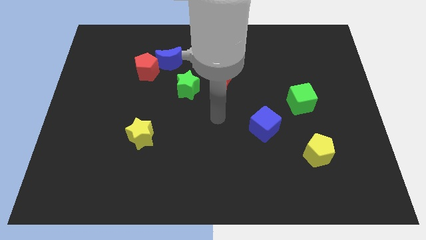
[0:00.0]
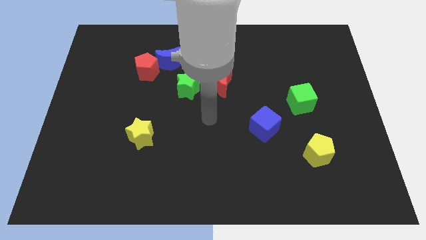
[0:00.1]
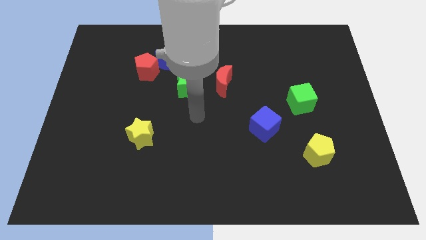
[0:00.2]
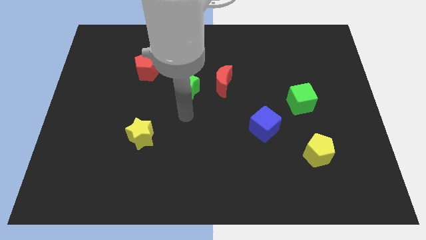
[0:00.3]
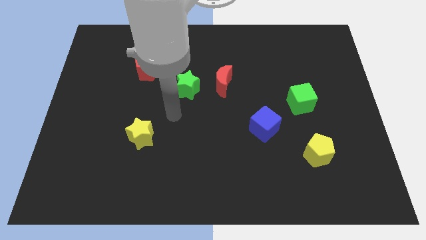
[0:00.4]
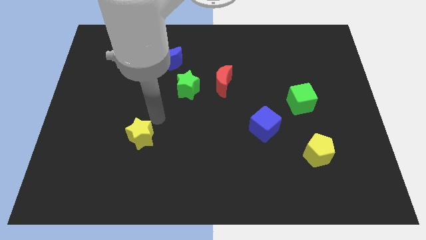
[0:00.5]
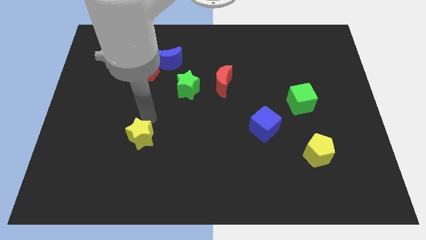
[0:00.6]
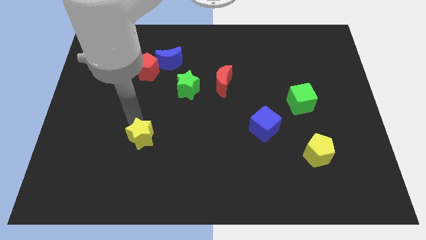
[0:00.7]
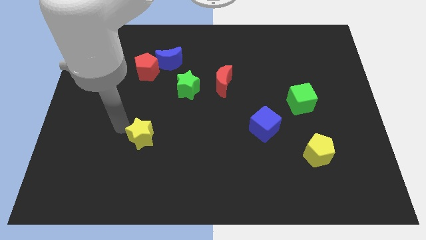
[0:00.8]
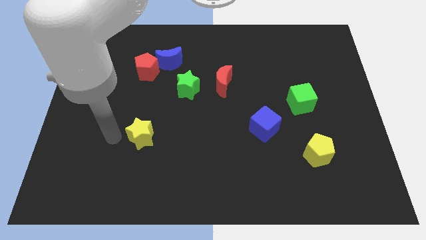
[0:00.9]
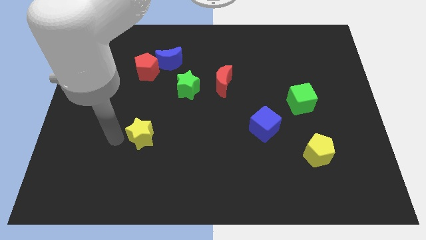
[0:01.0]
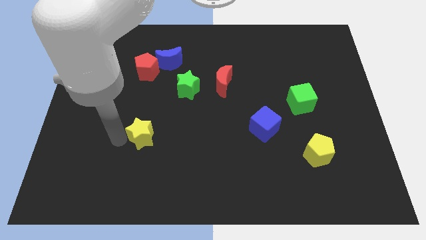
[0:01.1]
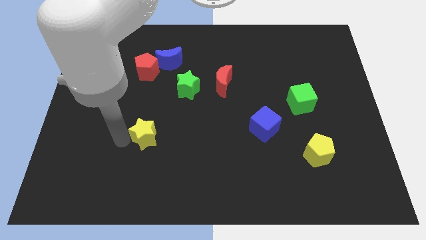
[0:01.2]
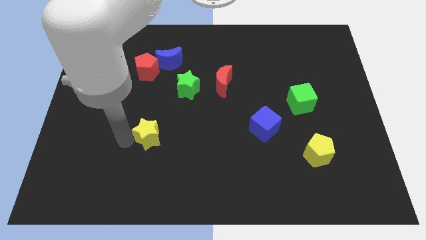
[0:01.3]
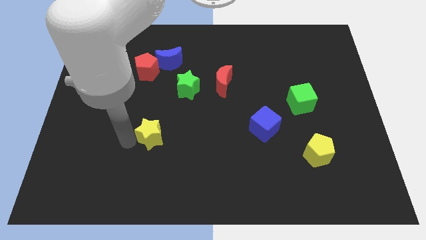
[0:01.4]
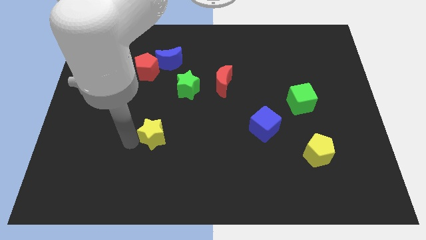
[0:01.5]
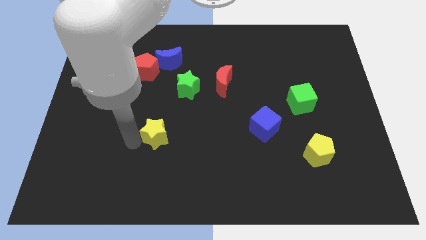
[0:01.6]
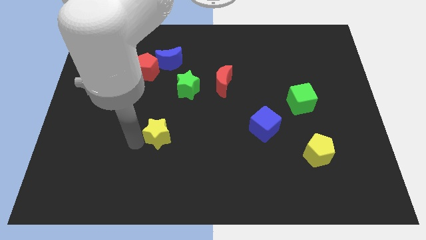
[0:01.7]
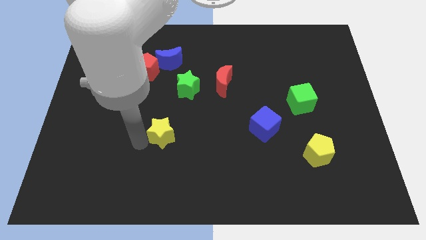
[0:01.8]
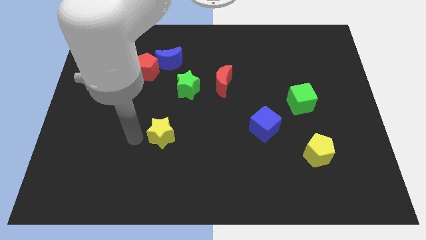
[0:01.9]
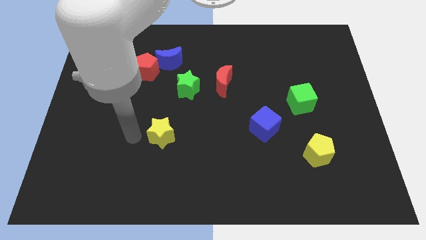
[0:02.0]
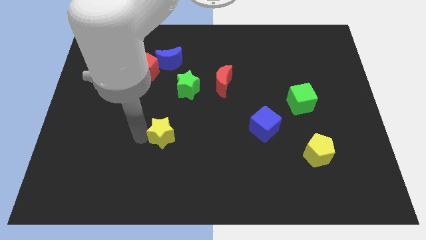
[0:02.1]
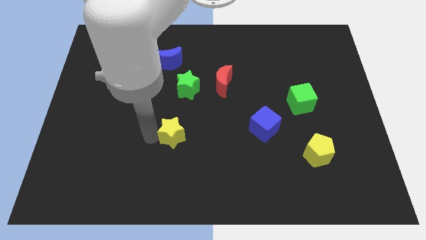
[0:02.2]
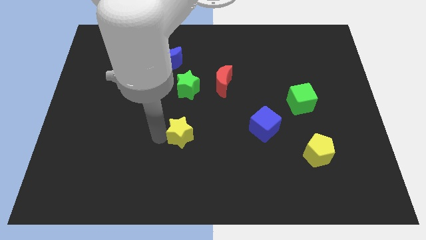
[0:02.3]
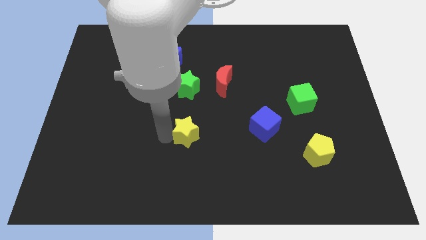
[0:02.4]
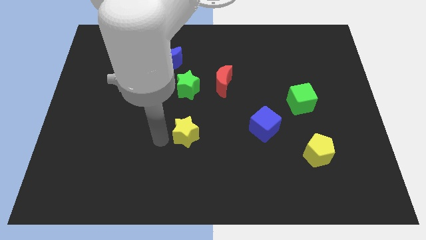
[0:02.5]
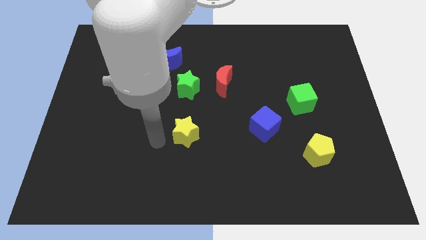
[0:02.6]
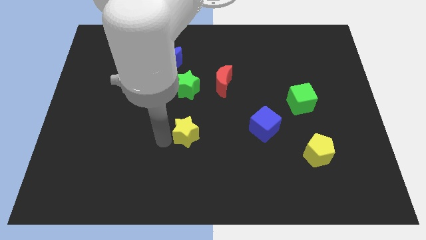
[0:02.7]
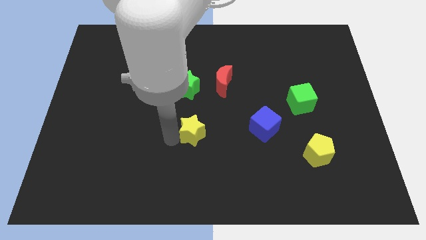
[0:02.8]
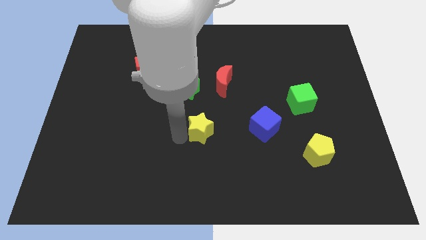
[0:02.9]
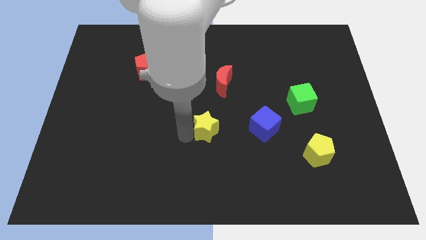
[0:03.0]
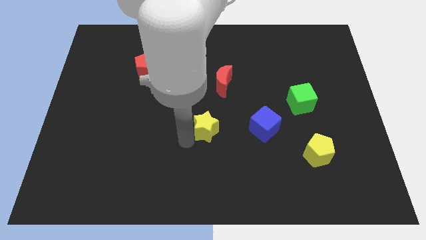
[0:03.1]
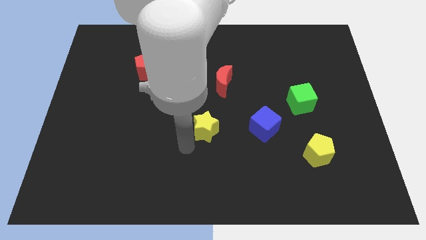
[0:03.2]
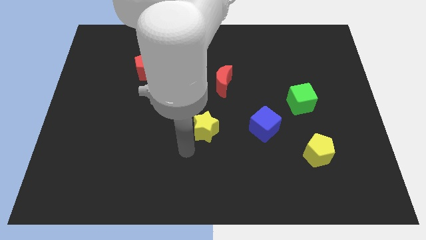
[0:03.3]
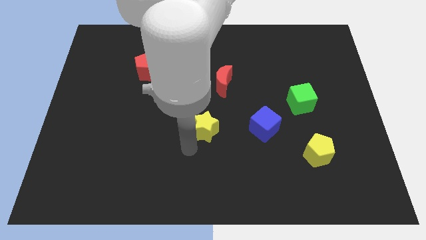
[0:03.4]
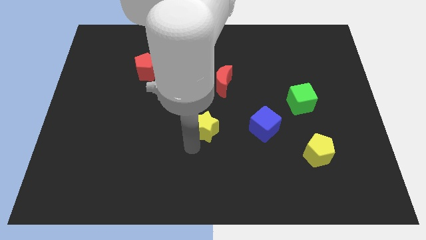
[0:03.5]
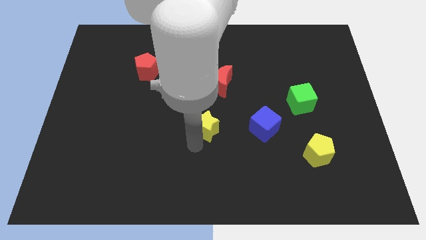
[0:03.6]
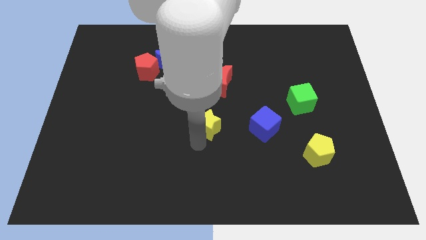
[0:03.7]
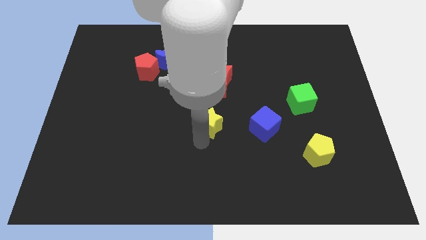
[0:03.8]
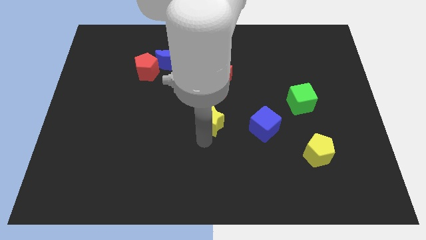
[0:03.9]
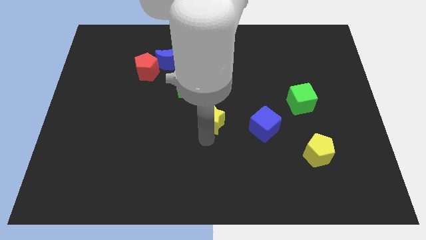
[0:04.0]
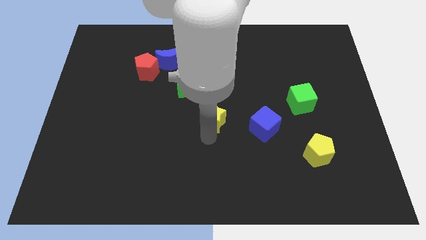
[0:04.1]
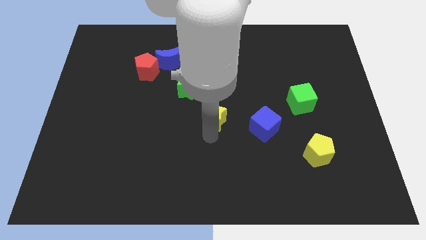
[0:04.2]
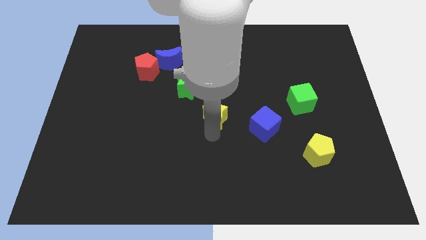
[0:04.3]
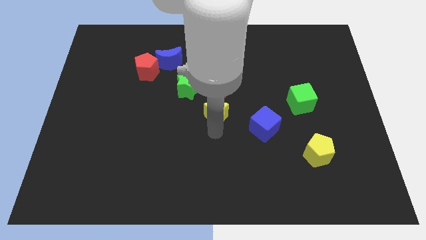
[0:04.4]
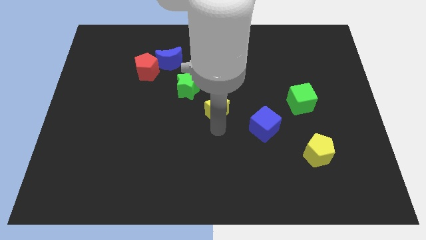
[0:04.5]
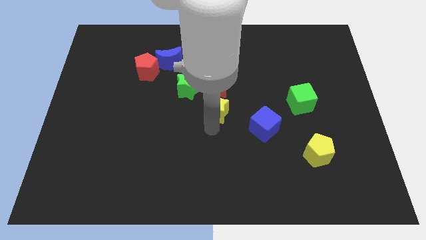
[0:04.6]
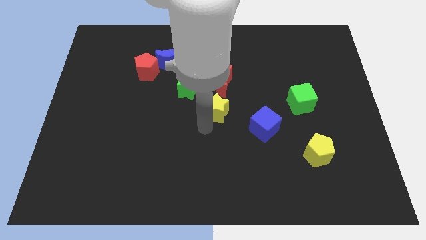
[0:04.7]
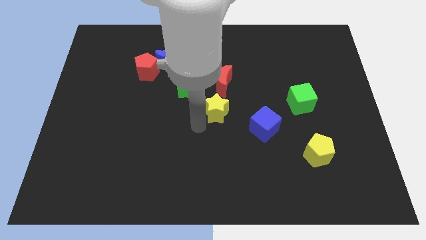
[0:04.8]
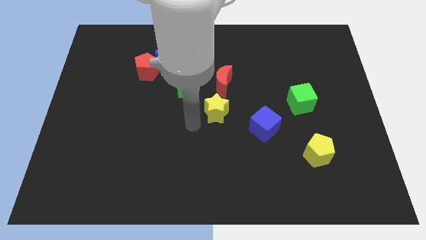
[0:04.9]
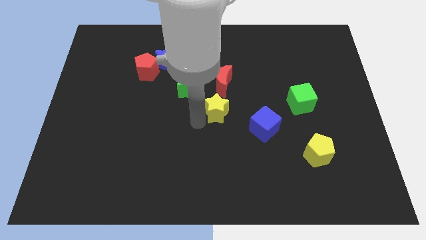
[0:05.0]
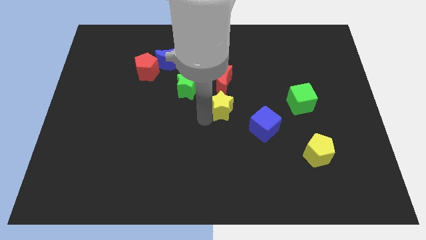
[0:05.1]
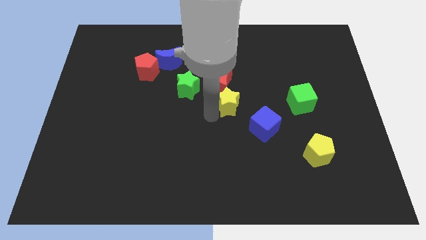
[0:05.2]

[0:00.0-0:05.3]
push the yellow star to the bottom right of the red moon

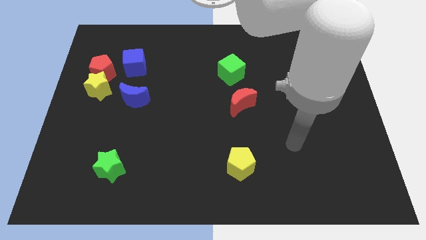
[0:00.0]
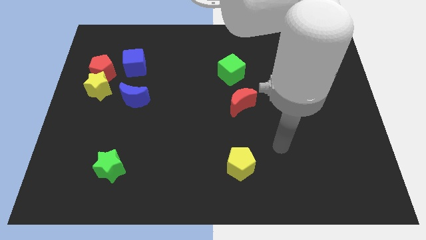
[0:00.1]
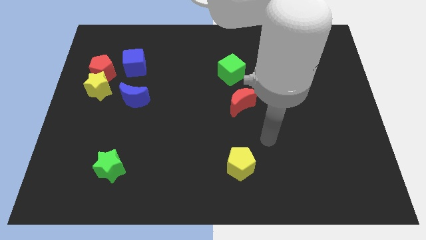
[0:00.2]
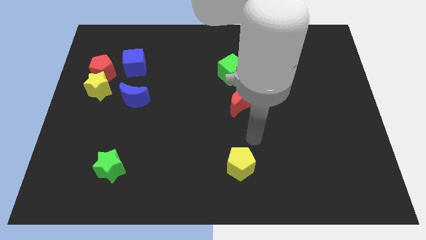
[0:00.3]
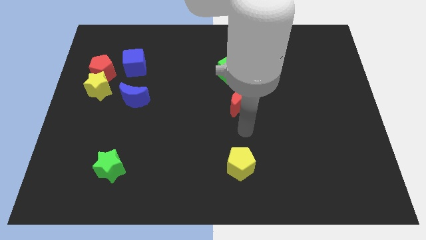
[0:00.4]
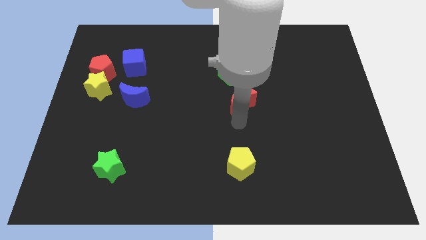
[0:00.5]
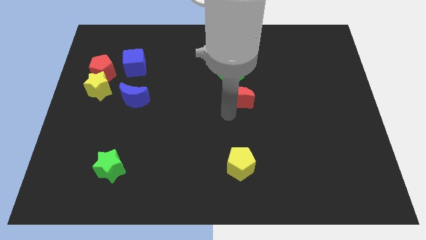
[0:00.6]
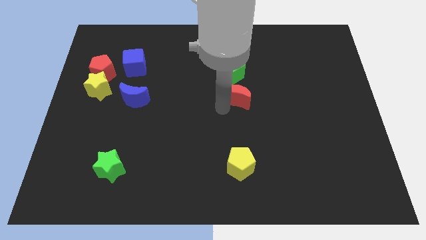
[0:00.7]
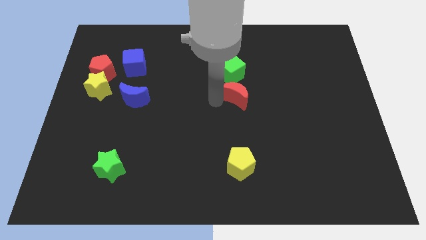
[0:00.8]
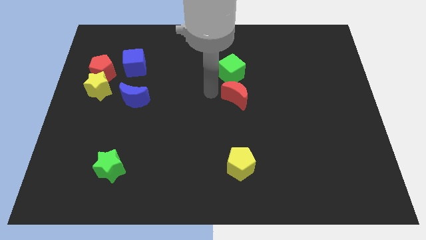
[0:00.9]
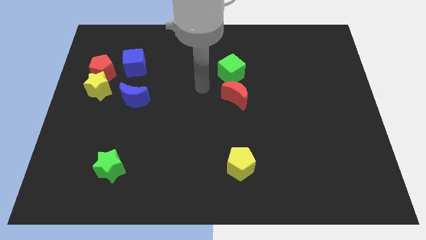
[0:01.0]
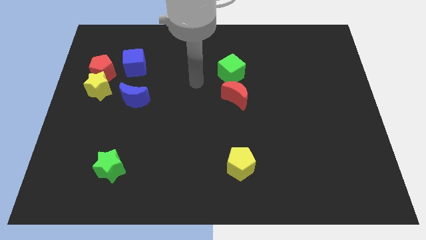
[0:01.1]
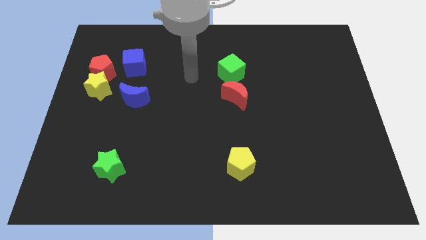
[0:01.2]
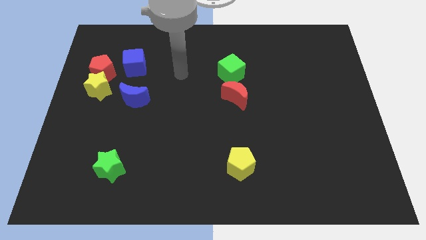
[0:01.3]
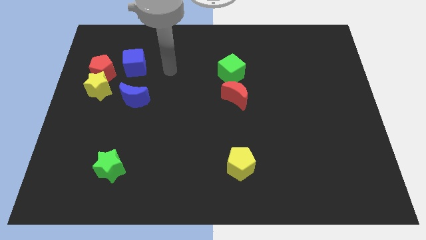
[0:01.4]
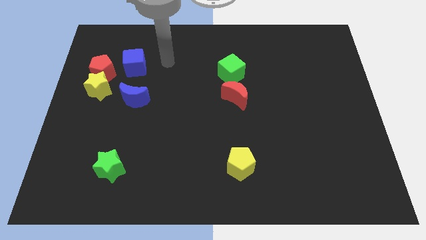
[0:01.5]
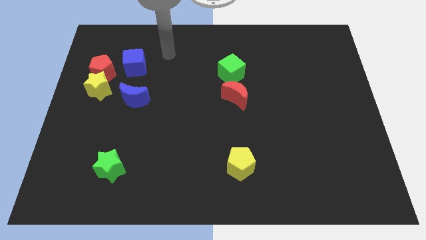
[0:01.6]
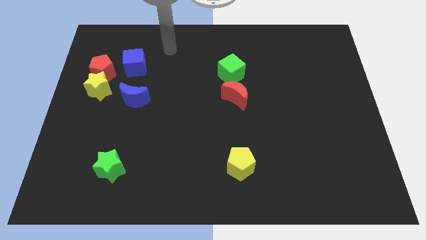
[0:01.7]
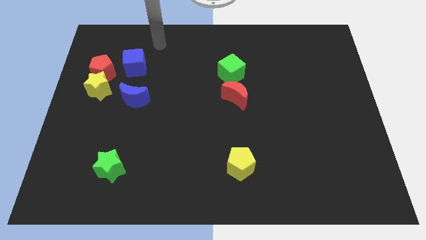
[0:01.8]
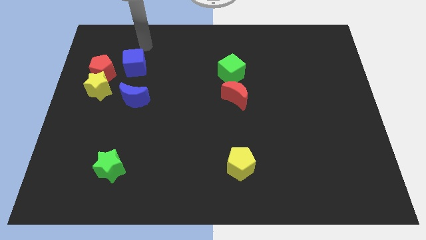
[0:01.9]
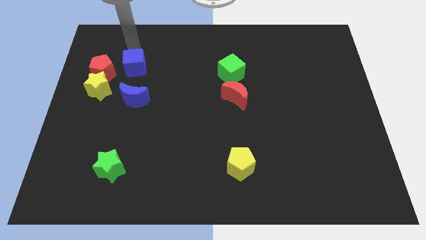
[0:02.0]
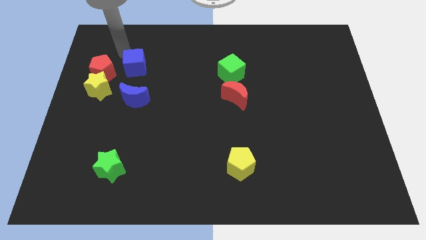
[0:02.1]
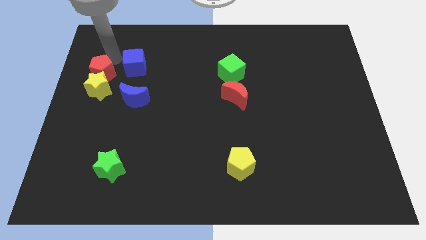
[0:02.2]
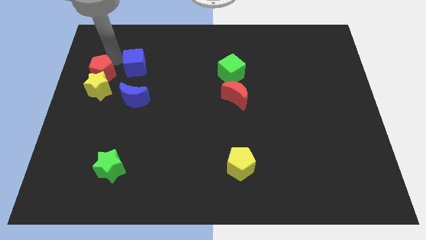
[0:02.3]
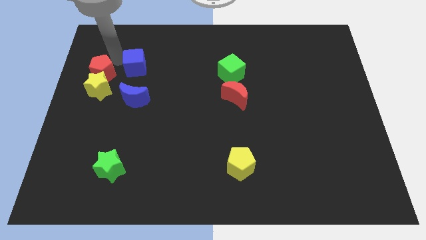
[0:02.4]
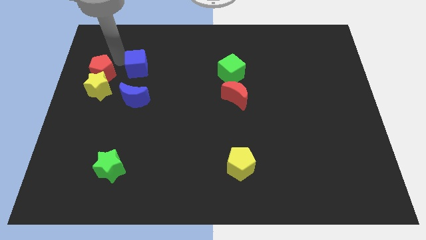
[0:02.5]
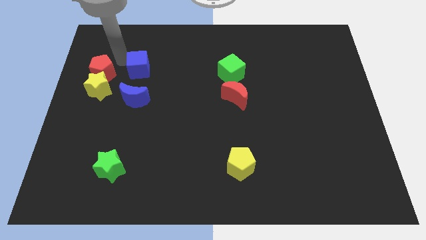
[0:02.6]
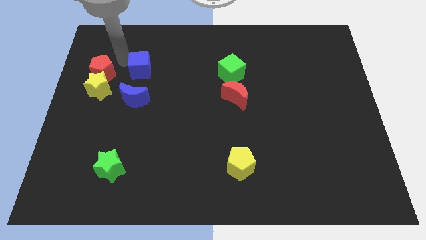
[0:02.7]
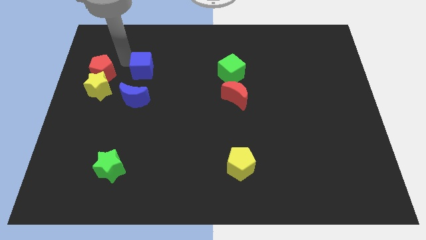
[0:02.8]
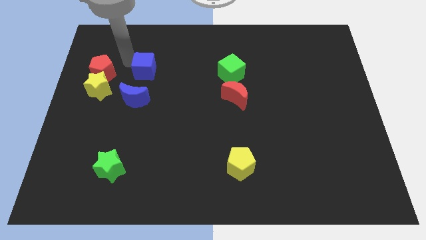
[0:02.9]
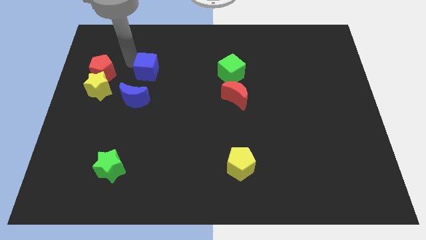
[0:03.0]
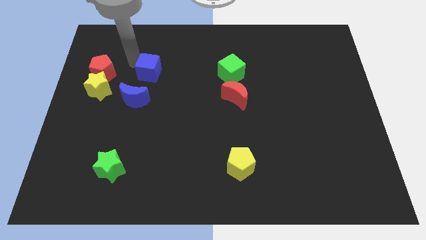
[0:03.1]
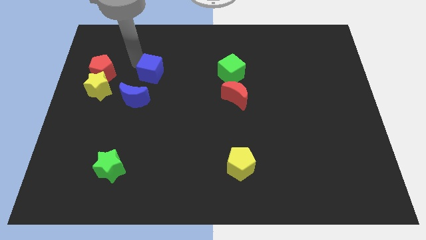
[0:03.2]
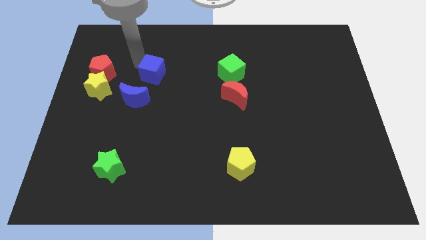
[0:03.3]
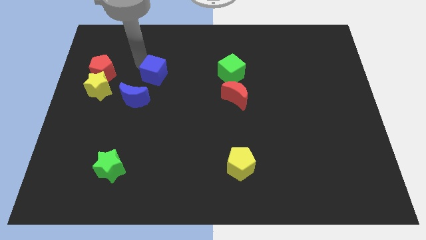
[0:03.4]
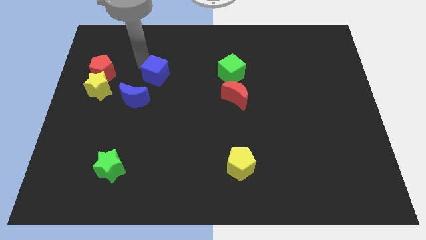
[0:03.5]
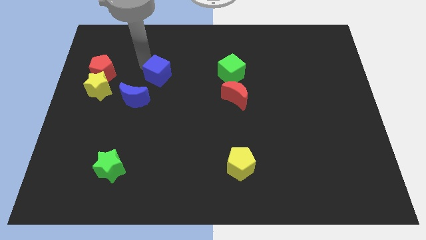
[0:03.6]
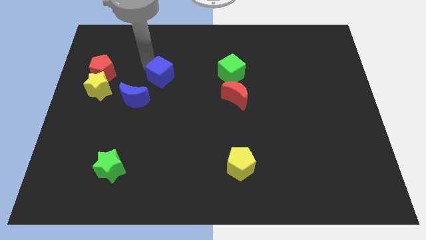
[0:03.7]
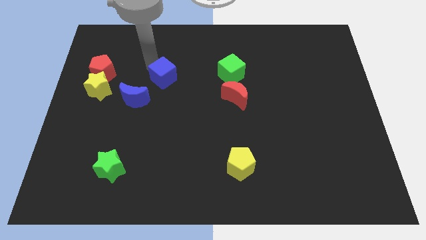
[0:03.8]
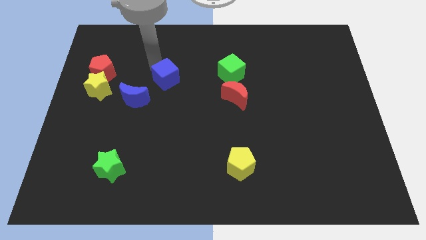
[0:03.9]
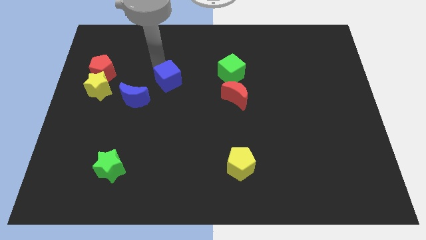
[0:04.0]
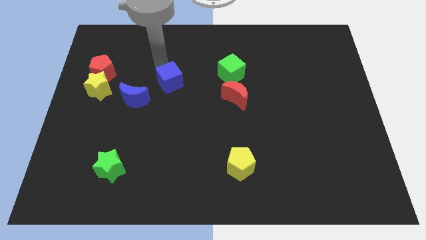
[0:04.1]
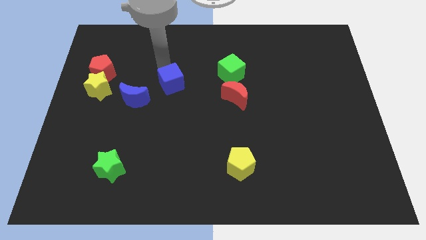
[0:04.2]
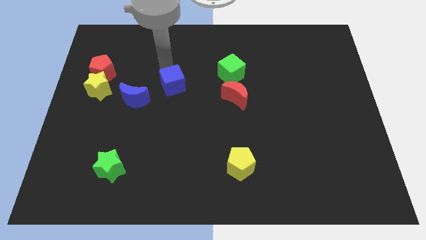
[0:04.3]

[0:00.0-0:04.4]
put the blue cube just right of the blue moon
